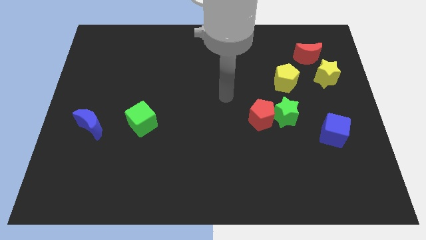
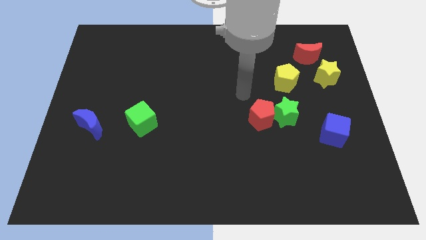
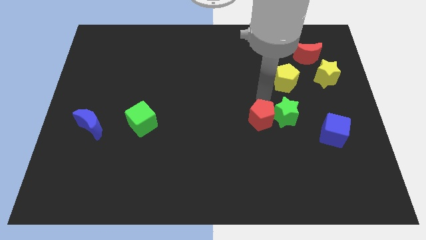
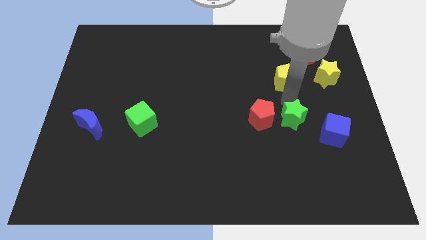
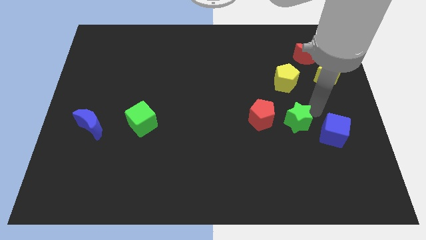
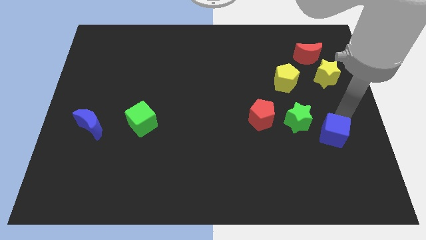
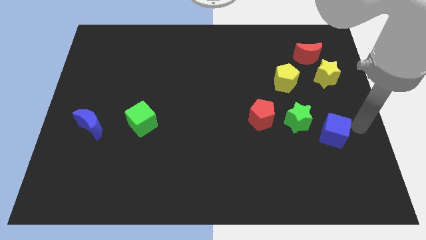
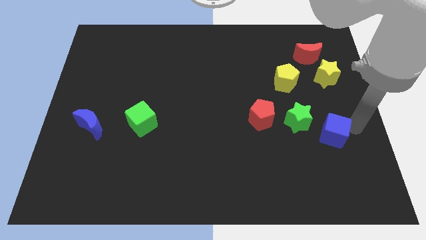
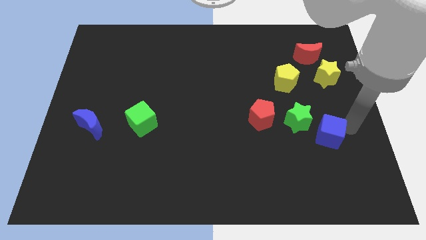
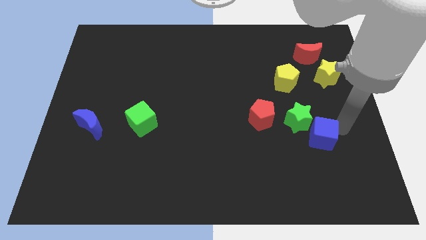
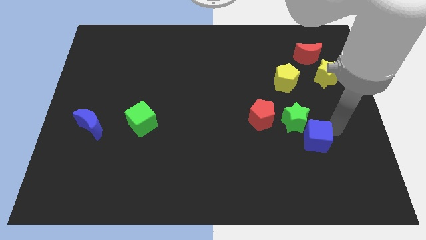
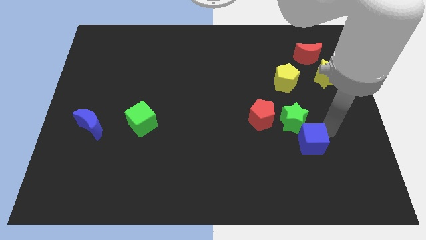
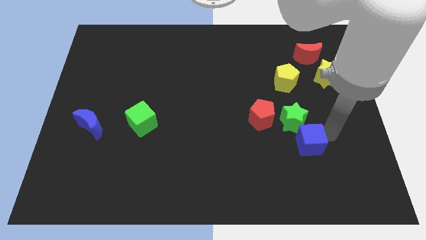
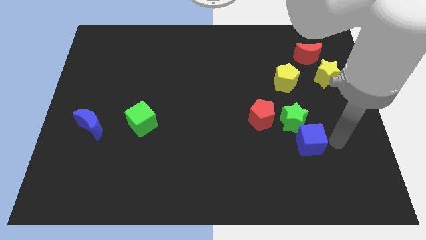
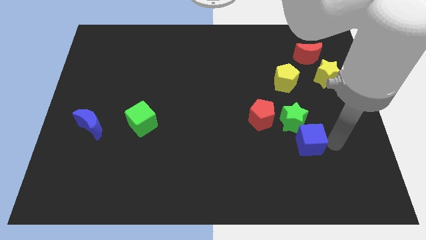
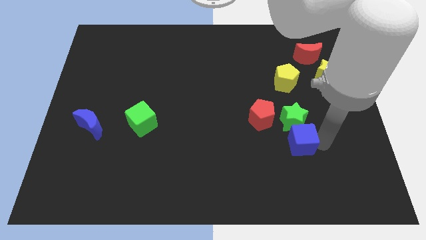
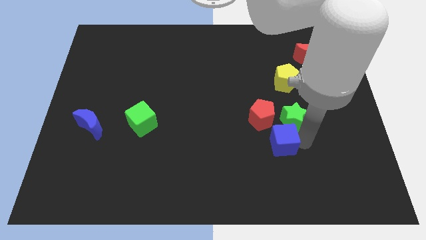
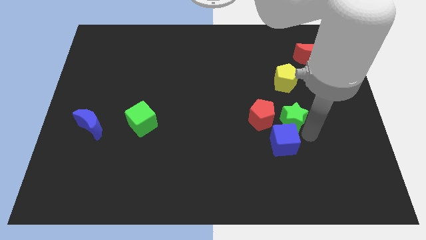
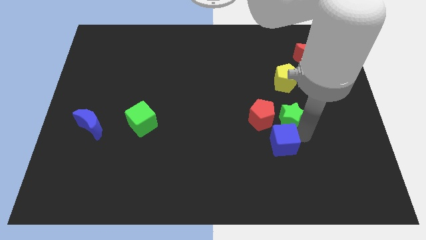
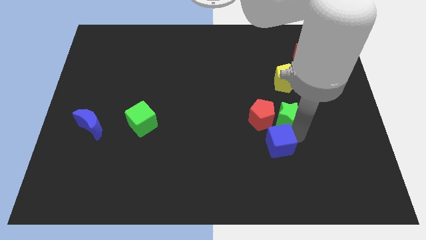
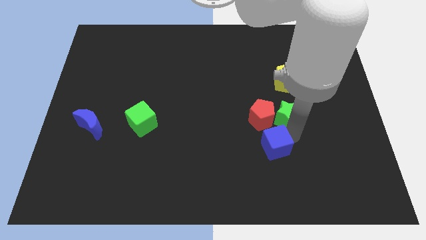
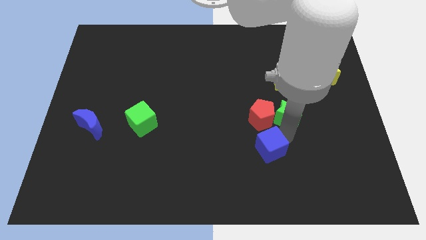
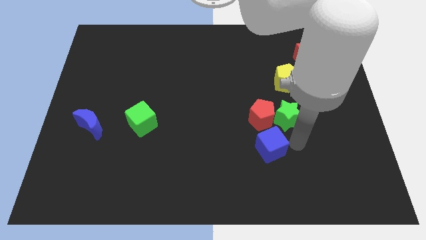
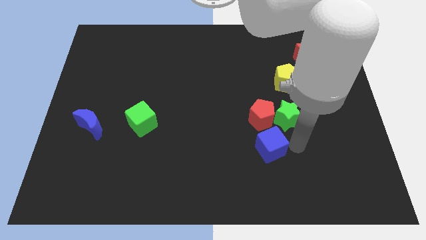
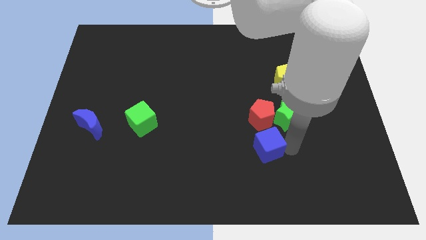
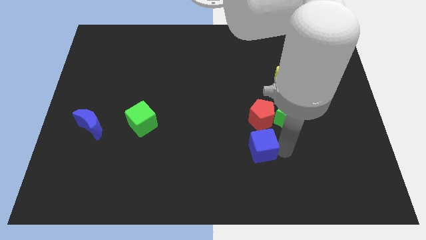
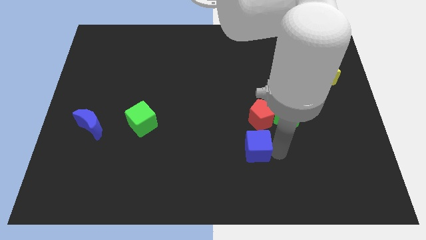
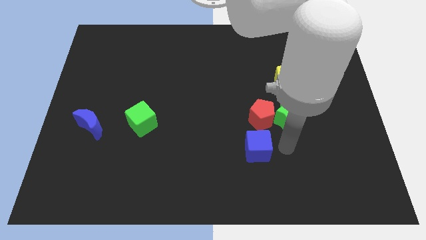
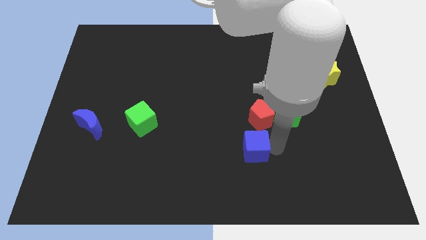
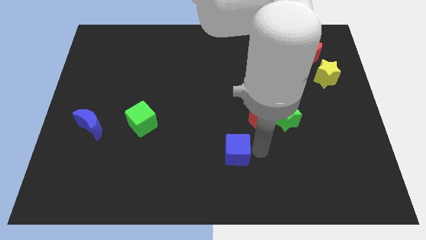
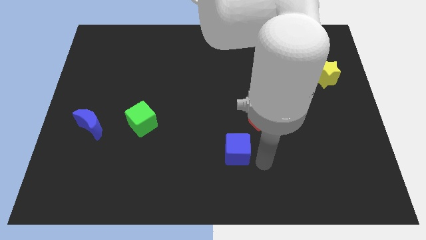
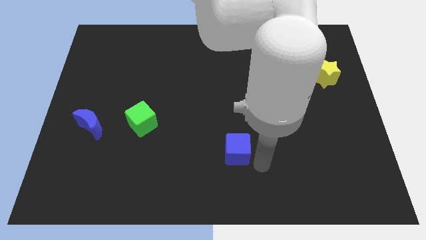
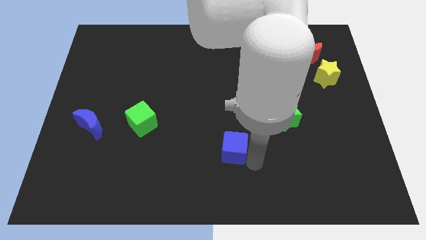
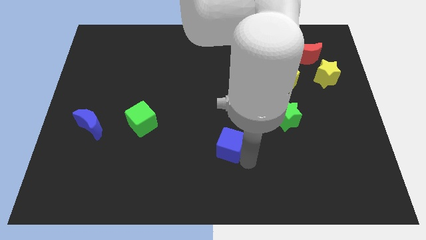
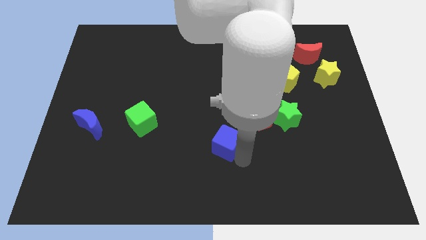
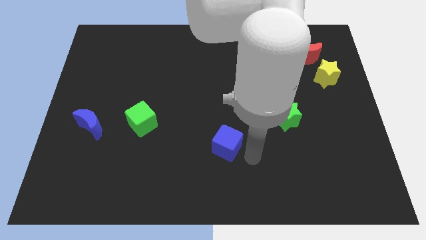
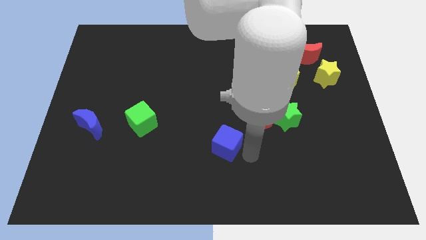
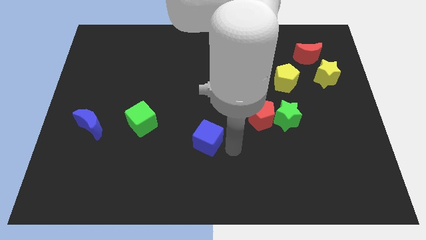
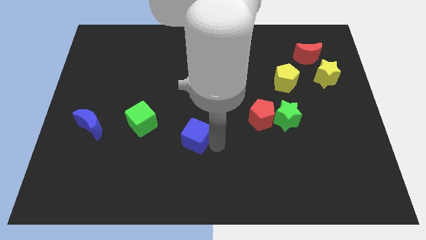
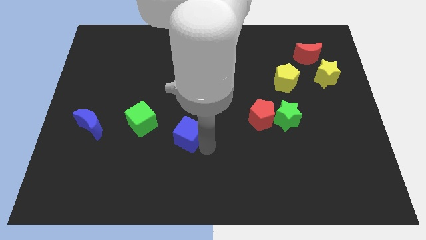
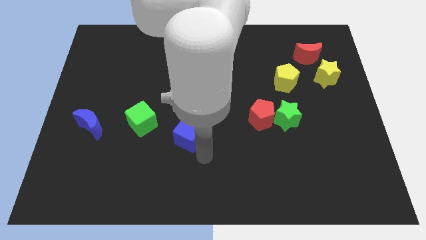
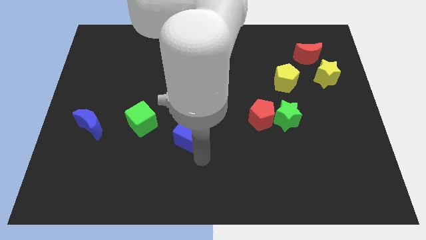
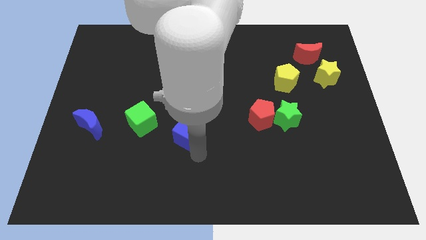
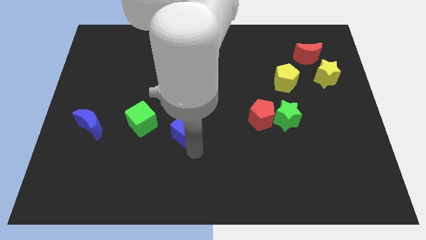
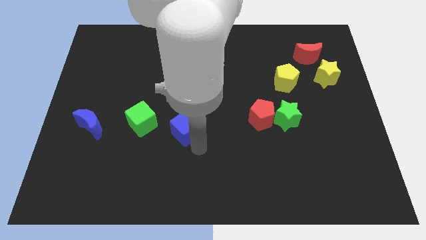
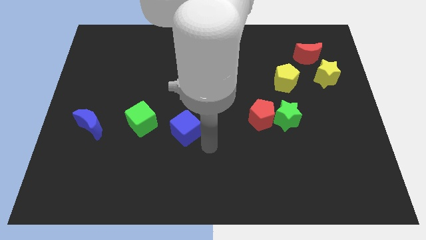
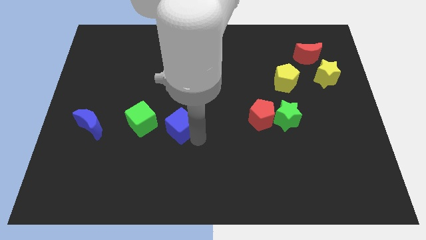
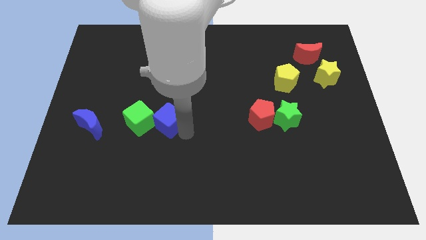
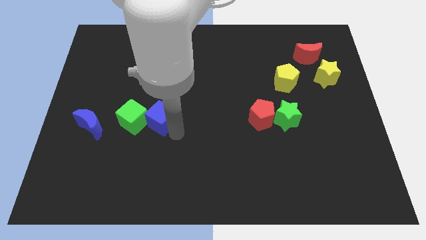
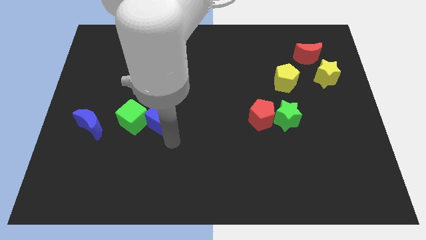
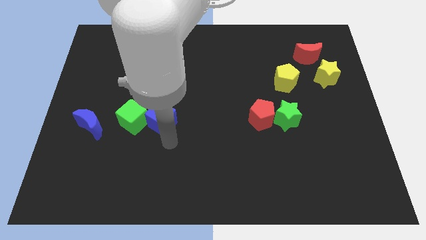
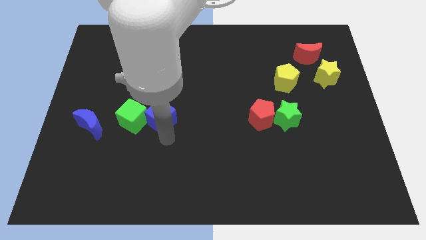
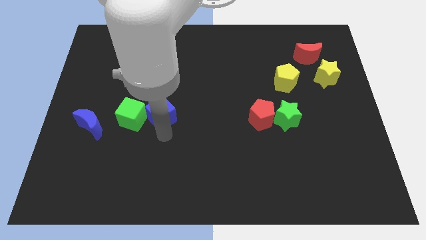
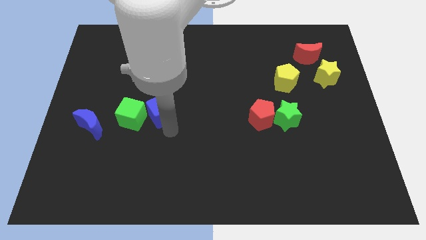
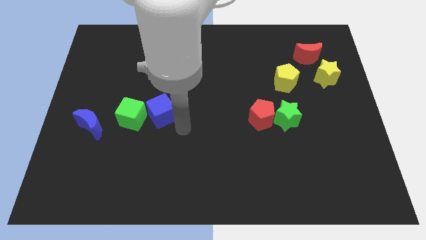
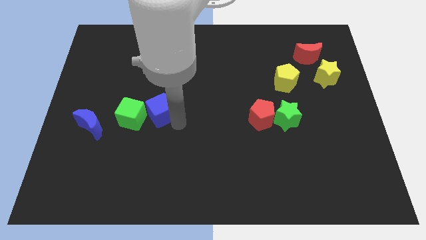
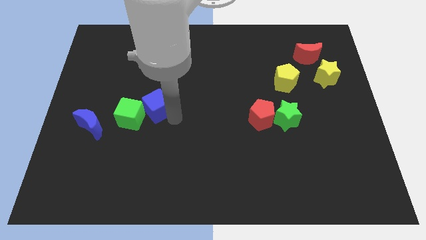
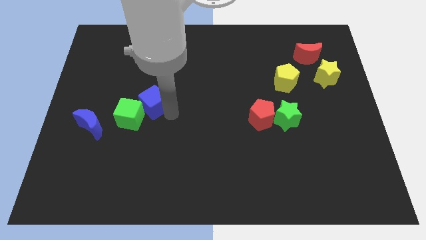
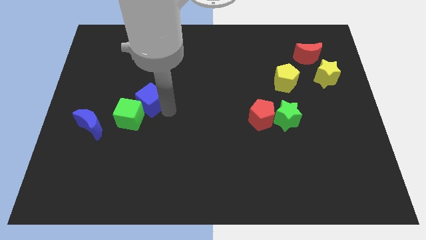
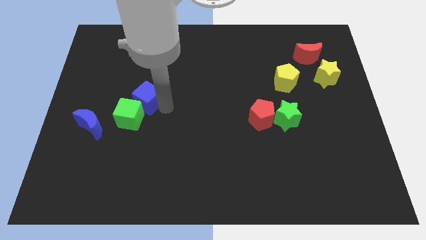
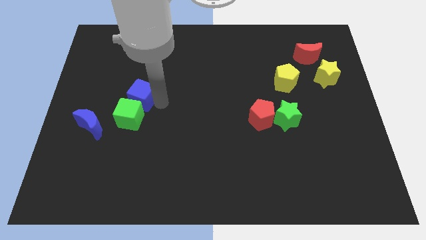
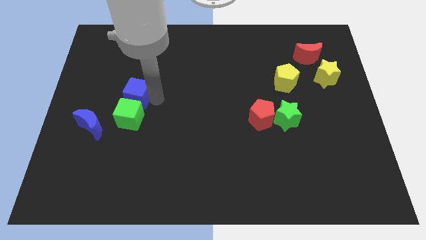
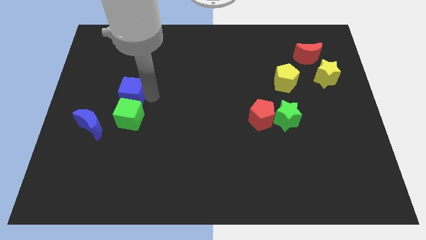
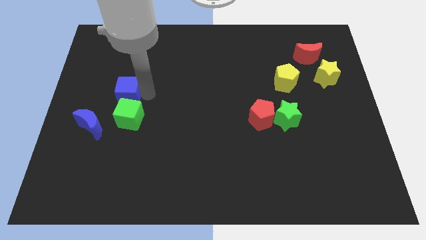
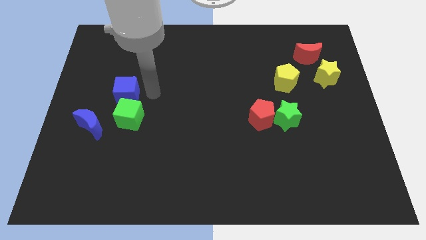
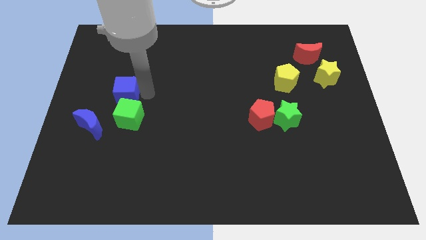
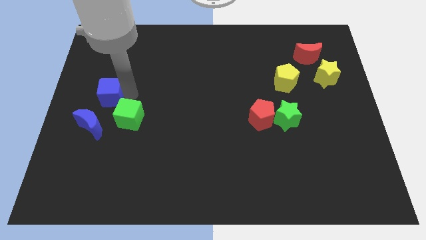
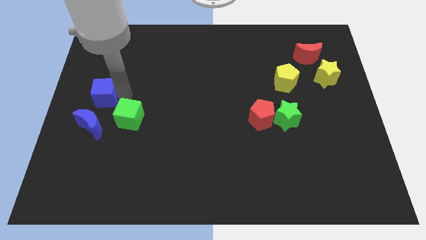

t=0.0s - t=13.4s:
put the blue cube to the left side
